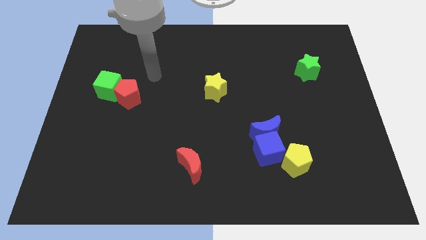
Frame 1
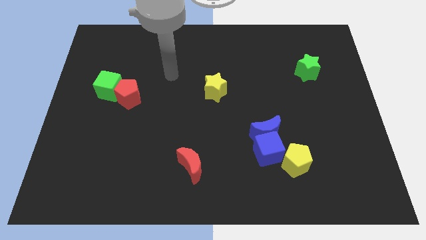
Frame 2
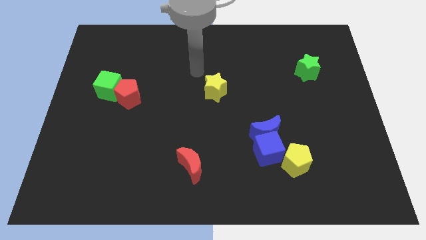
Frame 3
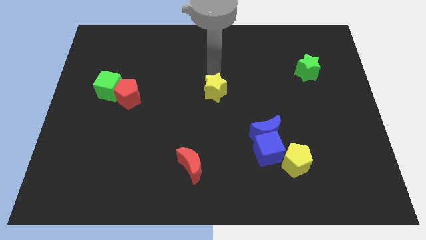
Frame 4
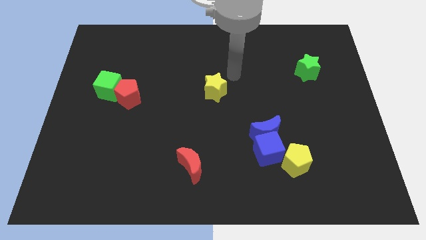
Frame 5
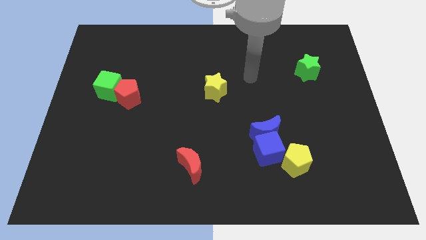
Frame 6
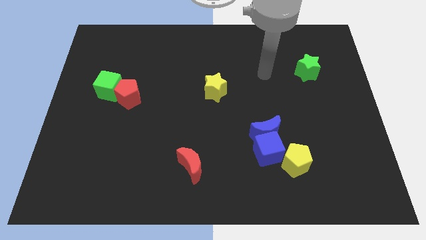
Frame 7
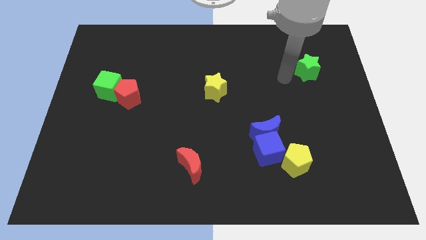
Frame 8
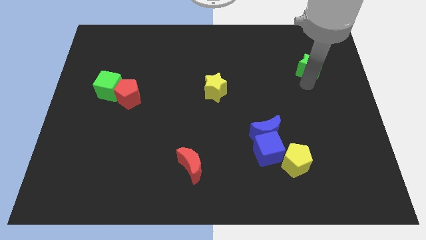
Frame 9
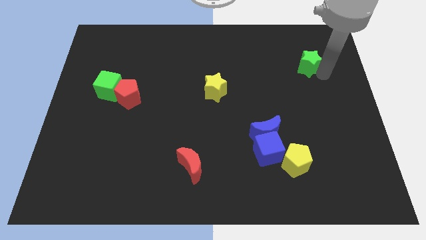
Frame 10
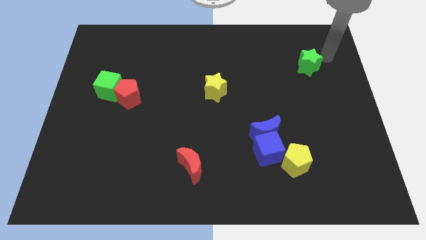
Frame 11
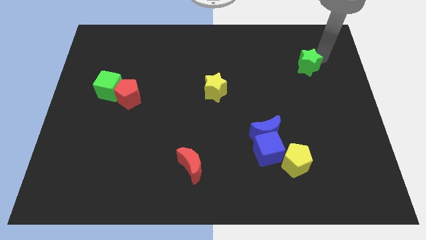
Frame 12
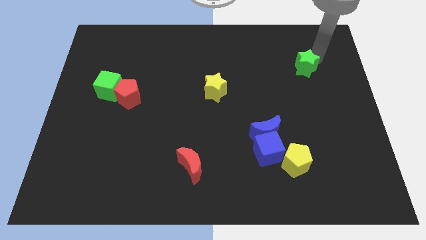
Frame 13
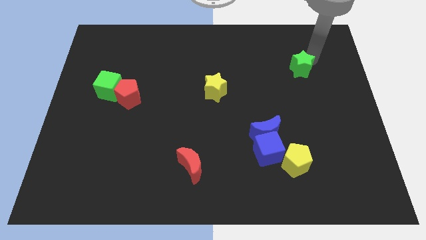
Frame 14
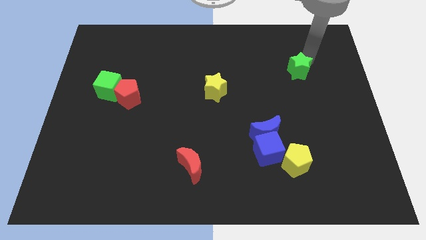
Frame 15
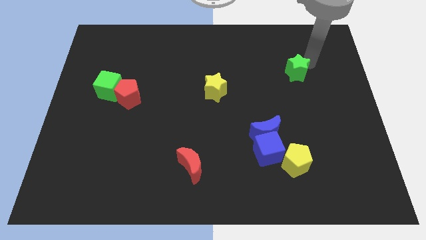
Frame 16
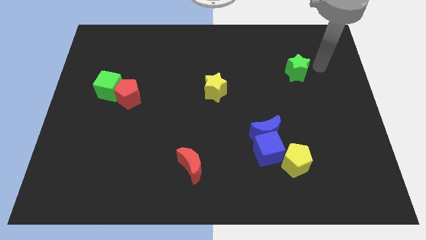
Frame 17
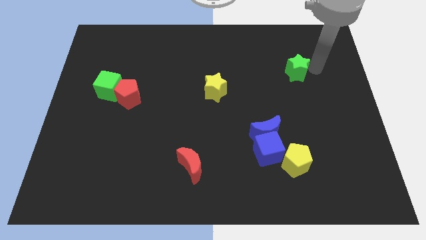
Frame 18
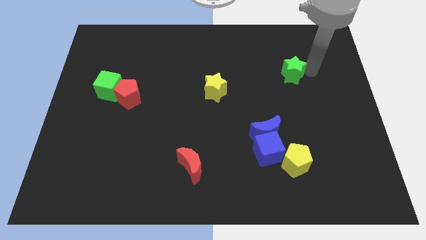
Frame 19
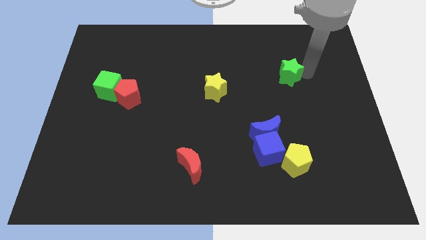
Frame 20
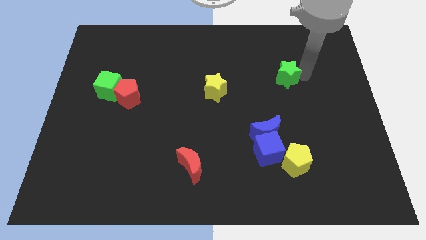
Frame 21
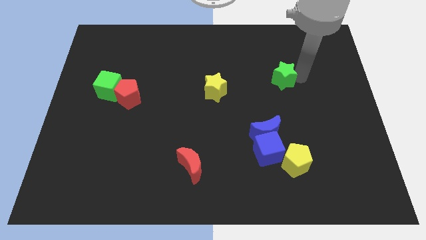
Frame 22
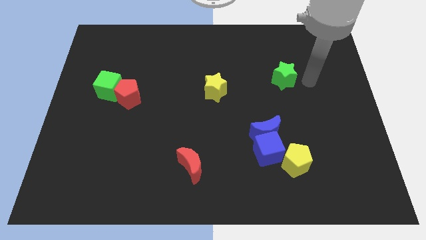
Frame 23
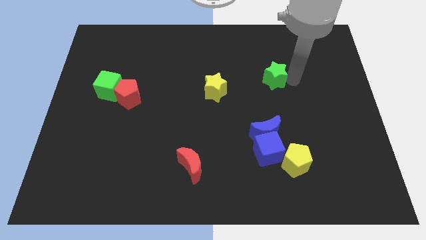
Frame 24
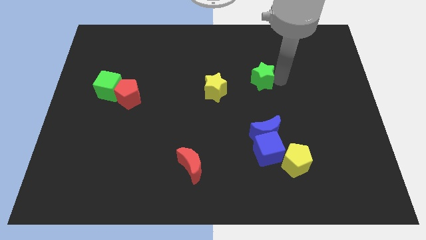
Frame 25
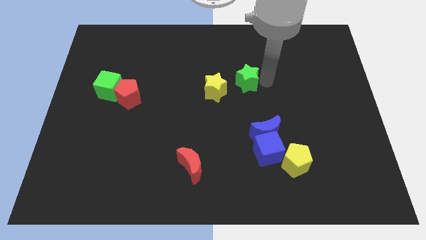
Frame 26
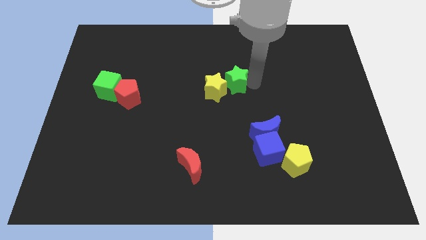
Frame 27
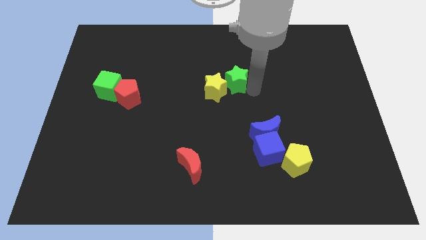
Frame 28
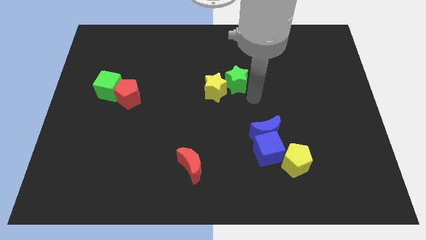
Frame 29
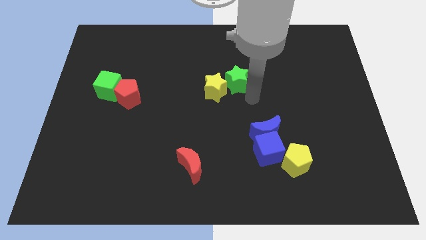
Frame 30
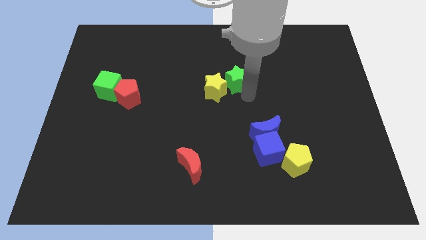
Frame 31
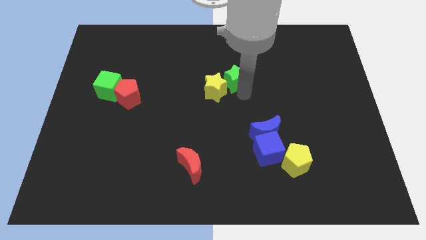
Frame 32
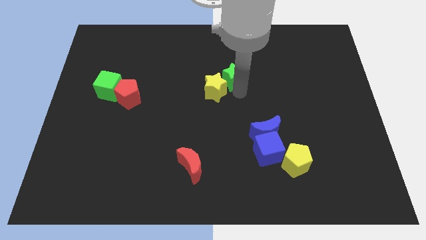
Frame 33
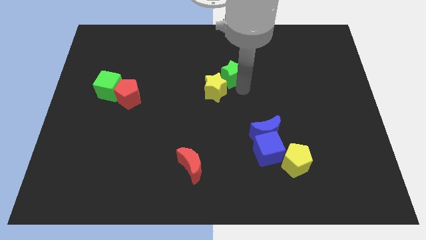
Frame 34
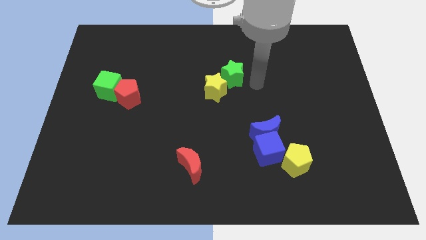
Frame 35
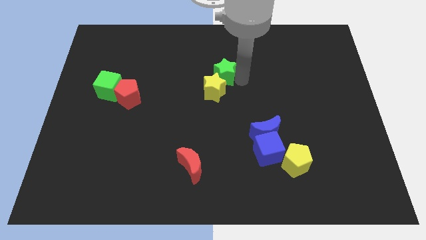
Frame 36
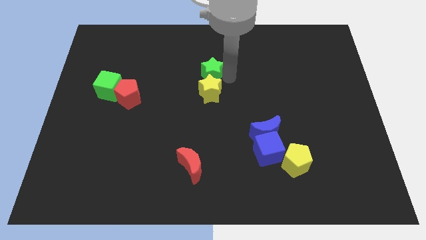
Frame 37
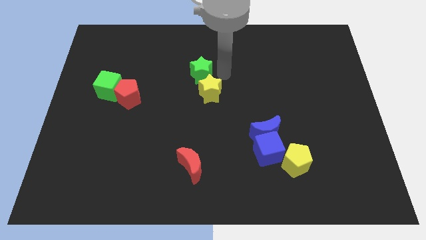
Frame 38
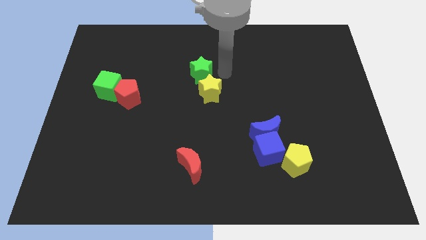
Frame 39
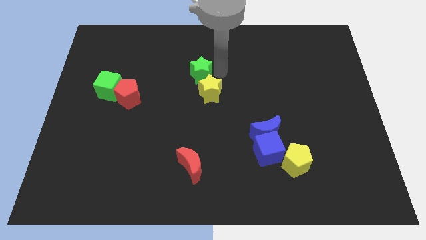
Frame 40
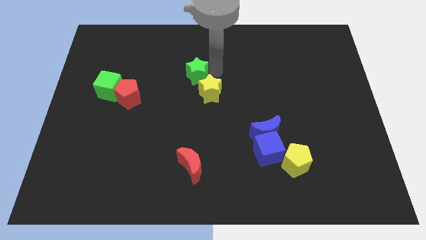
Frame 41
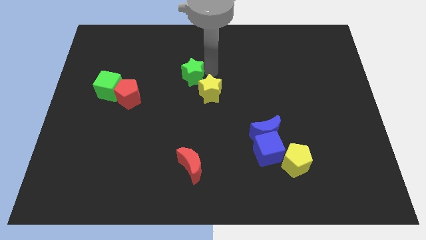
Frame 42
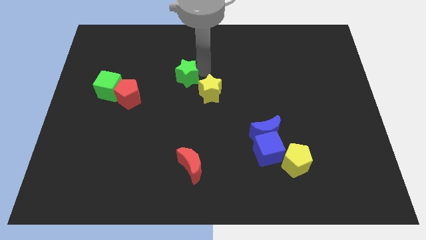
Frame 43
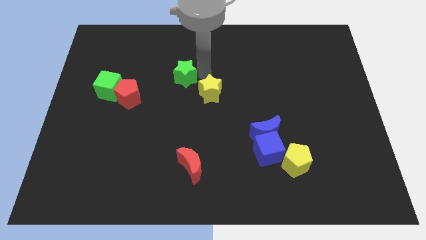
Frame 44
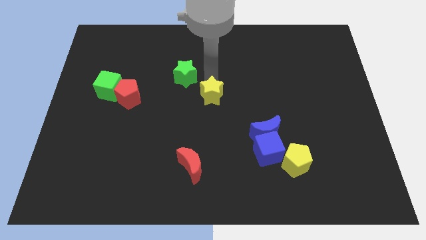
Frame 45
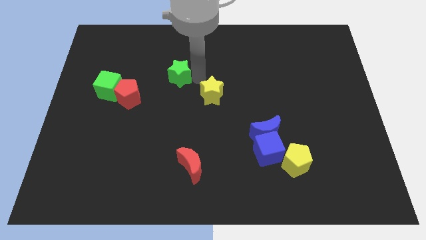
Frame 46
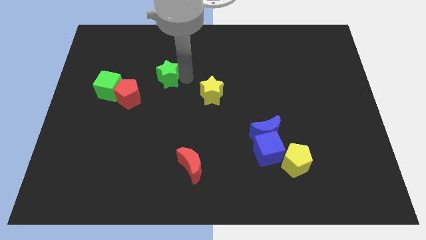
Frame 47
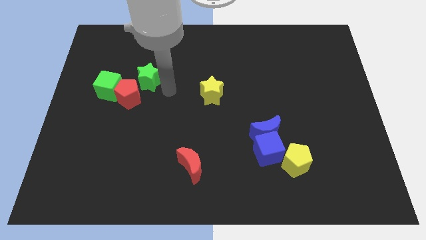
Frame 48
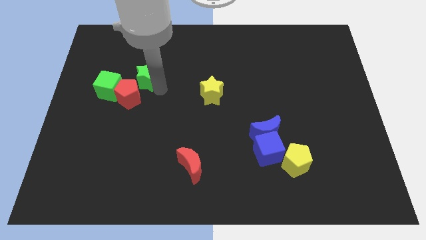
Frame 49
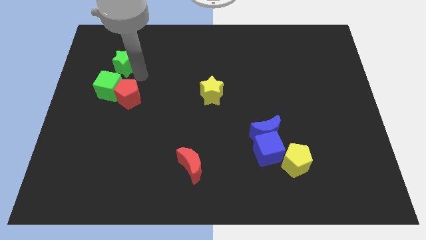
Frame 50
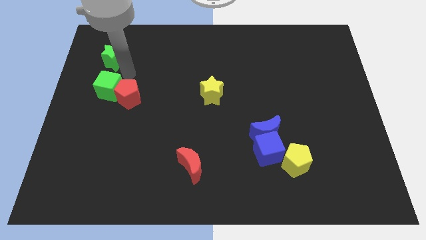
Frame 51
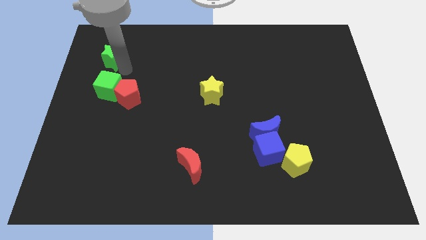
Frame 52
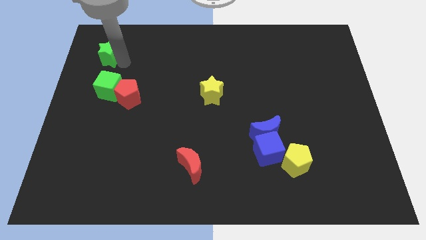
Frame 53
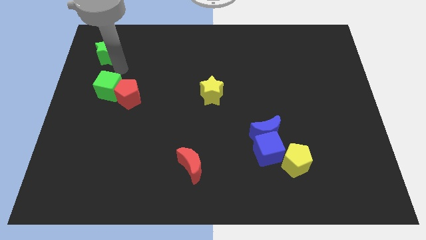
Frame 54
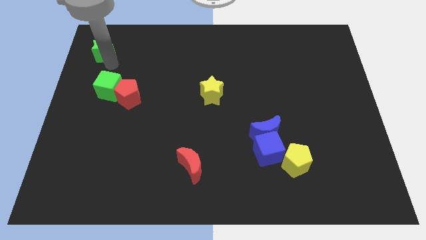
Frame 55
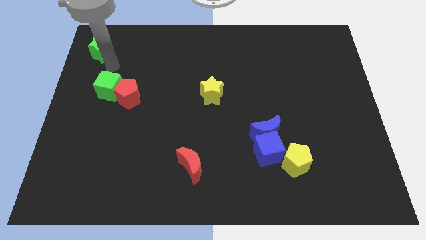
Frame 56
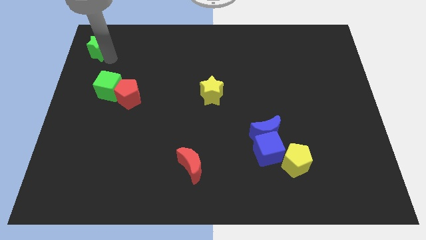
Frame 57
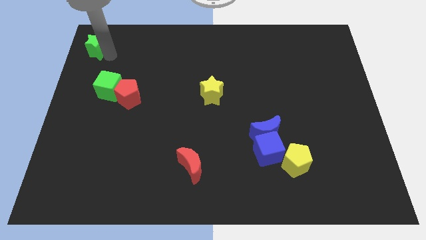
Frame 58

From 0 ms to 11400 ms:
slide the green star to the upper left corner
